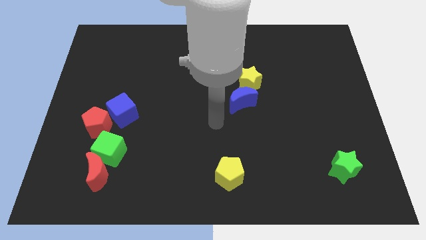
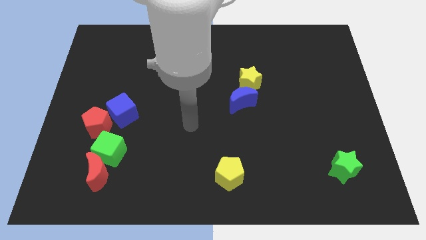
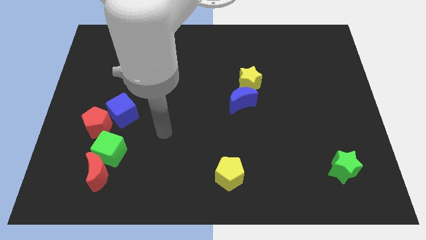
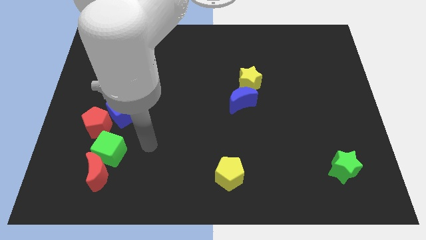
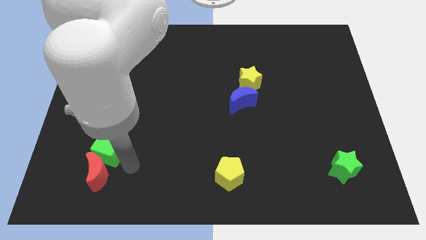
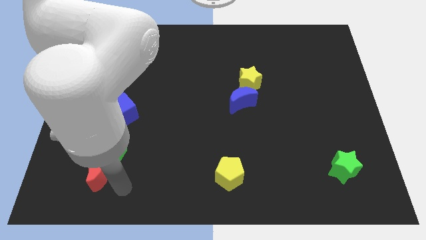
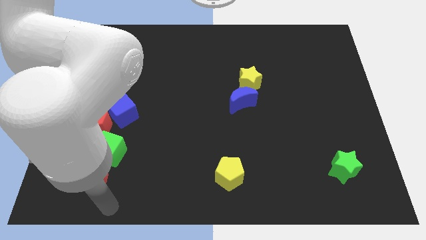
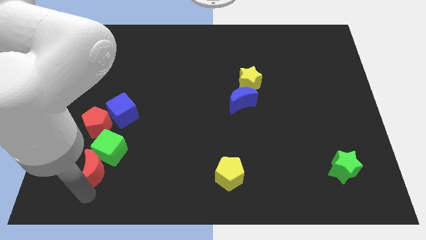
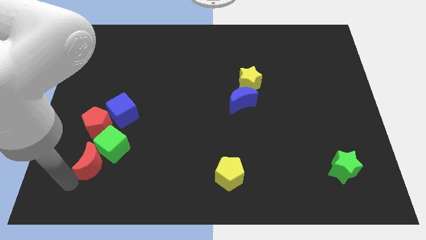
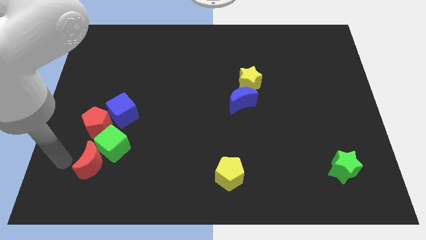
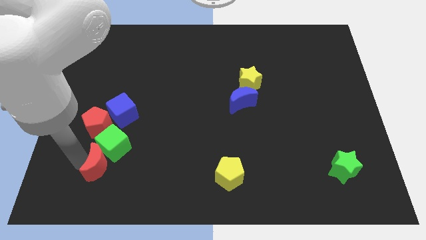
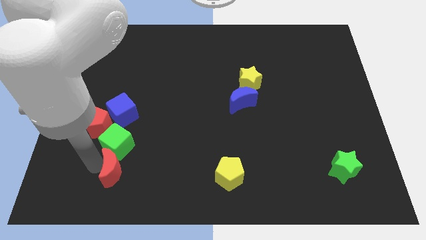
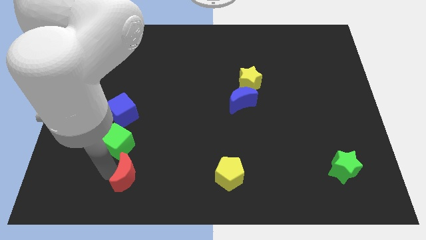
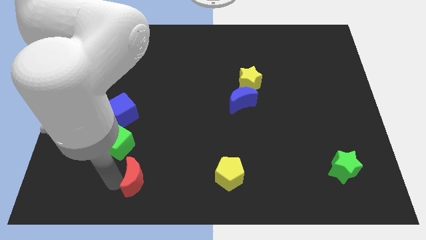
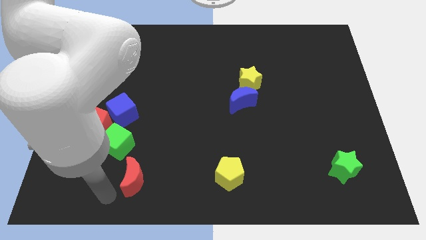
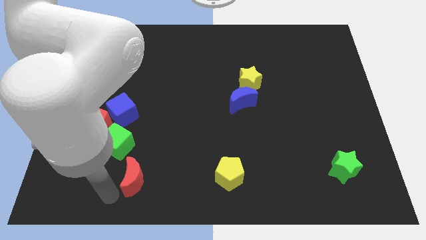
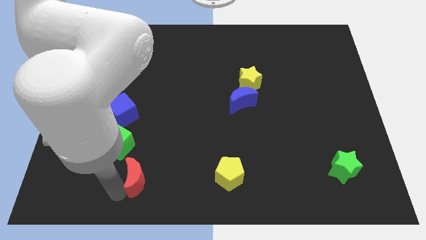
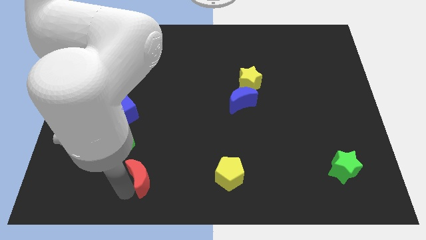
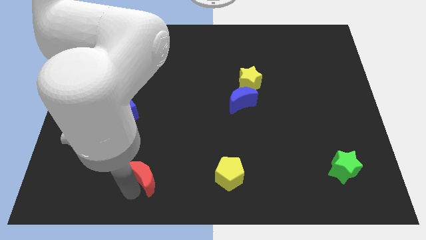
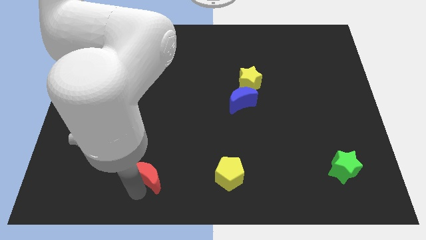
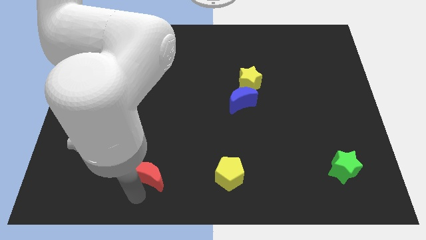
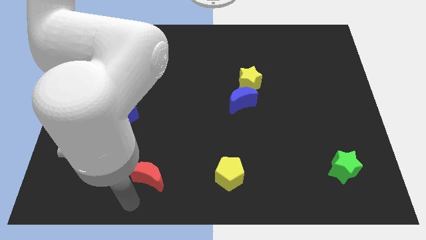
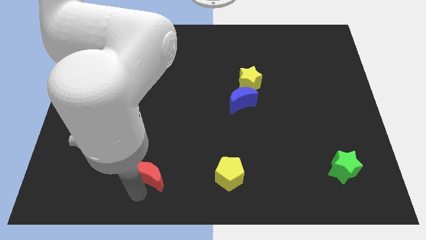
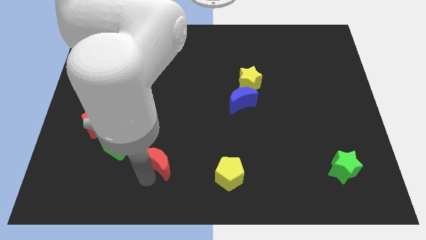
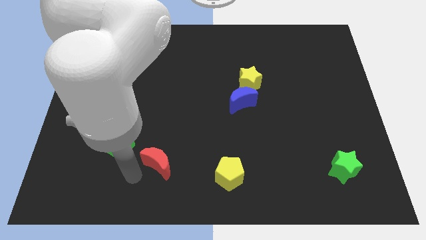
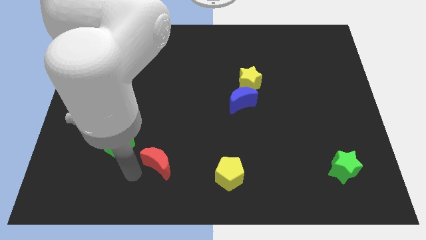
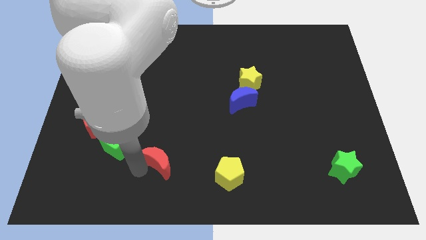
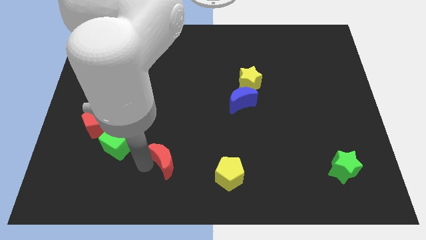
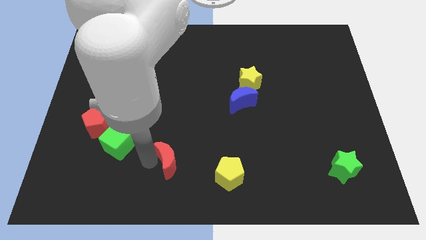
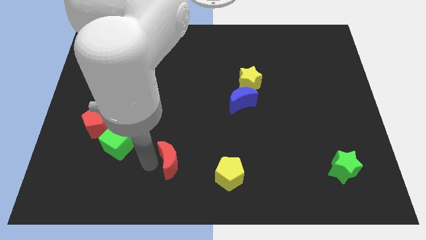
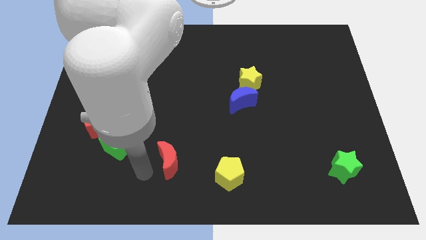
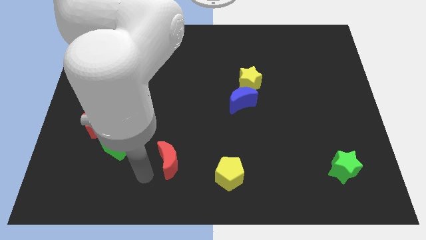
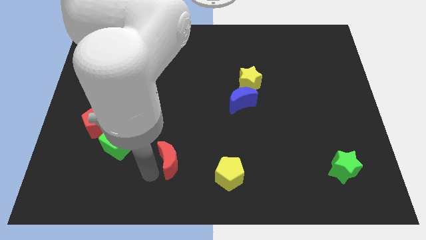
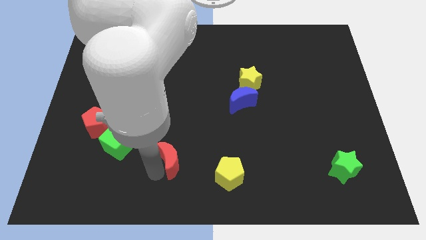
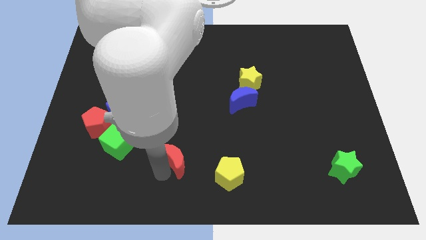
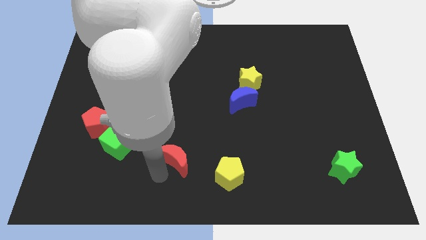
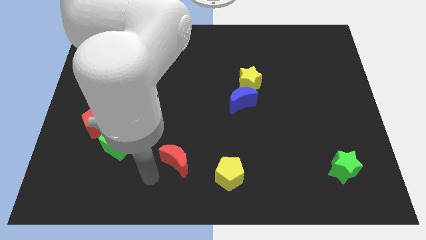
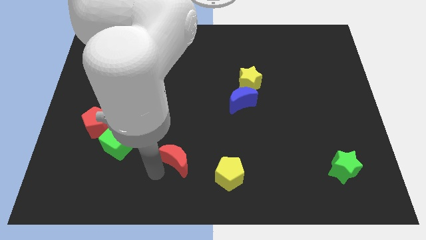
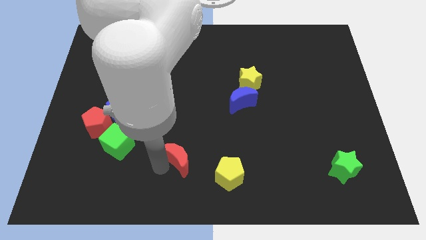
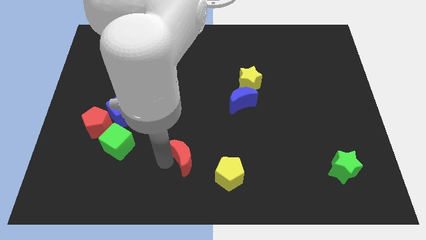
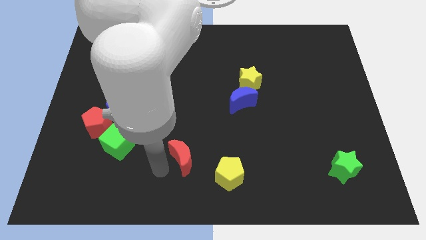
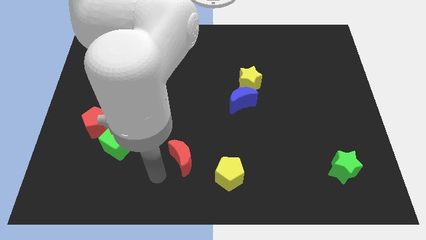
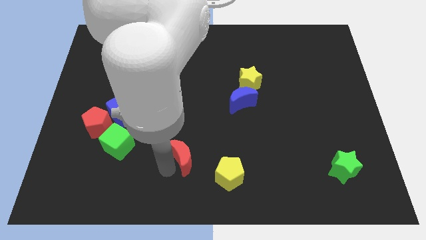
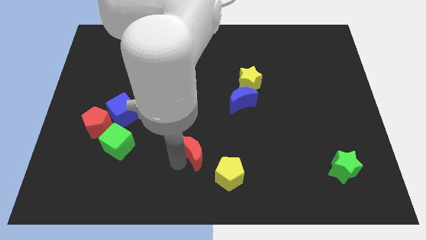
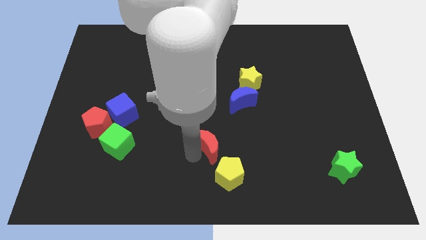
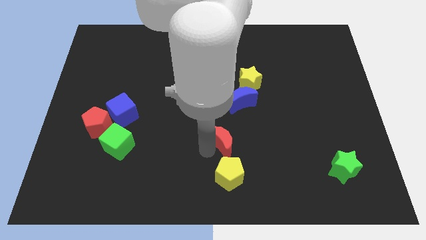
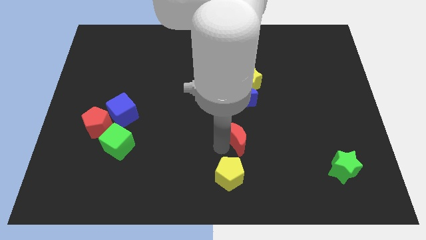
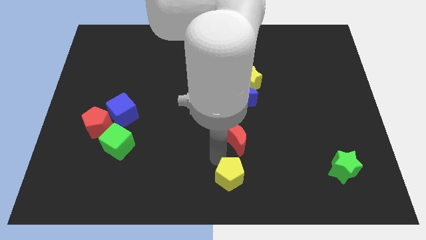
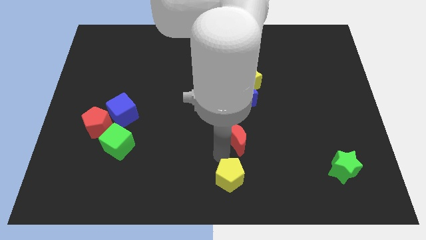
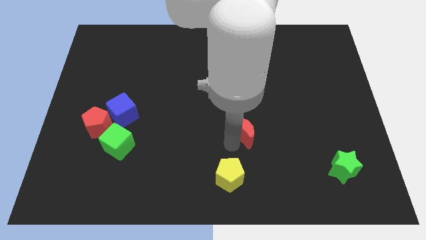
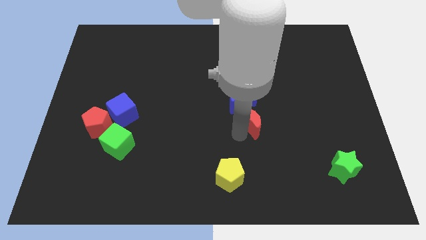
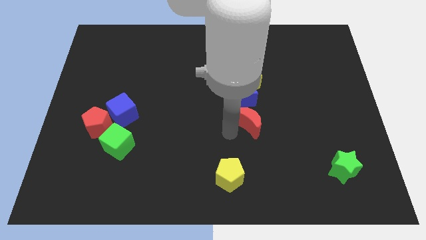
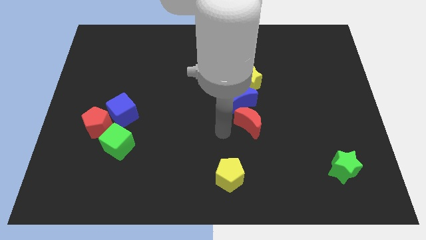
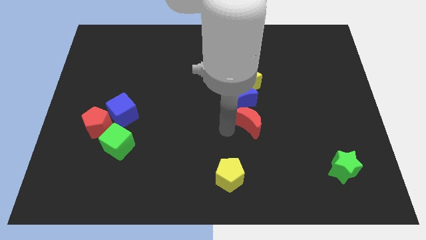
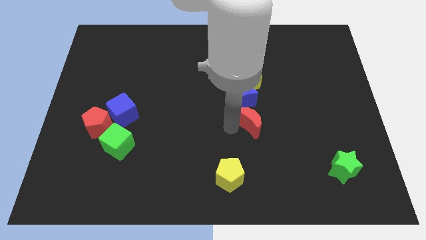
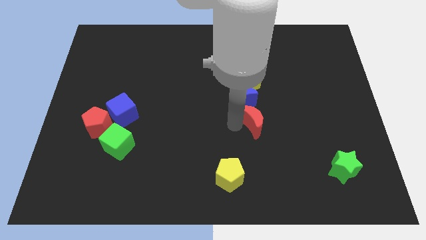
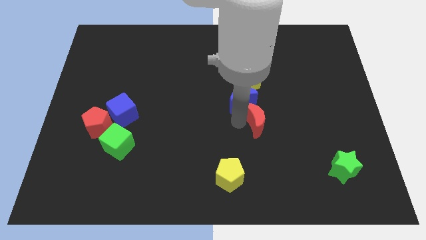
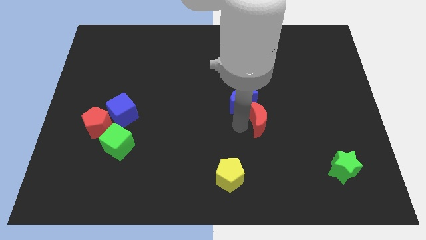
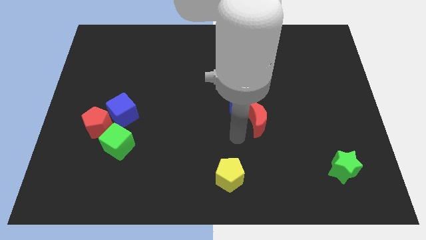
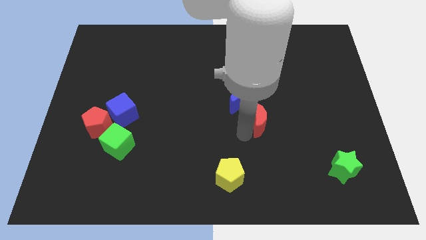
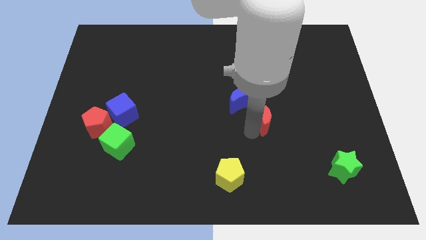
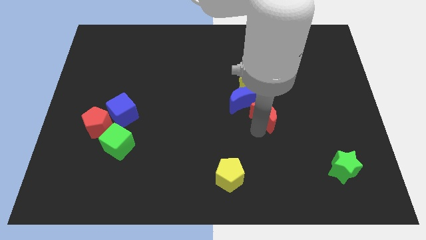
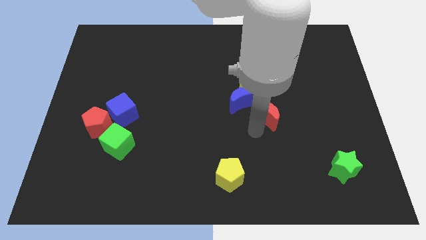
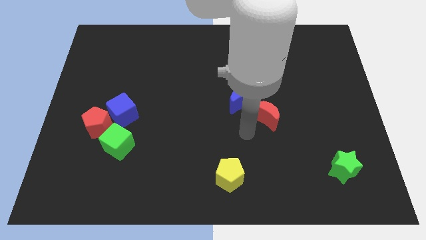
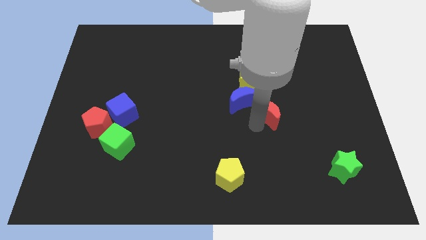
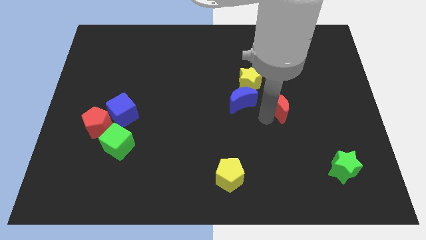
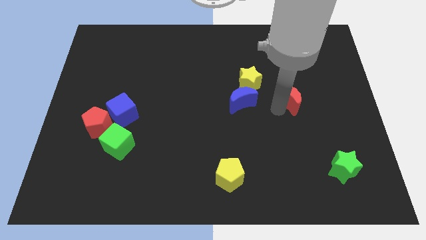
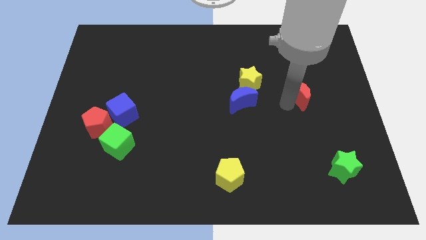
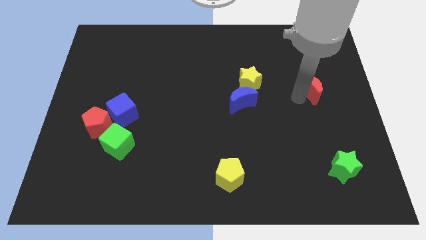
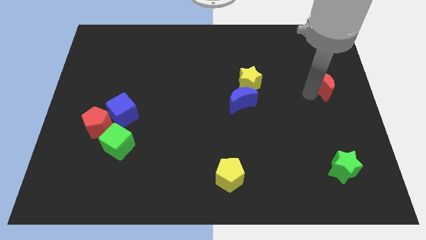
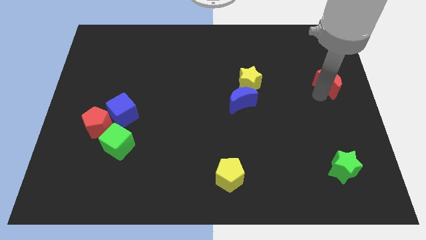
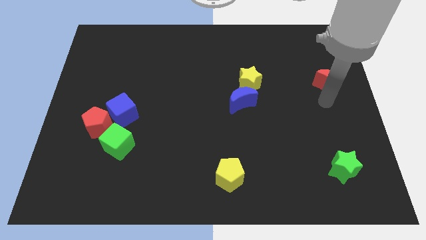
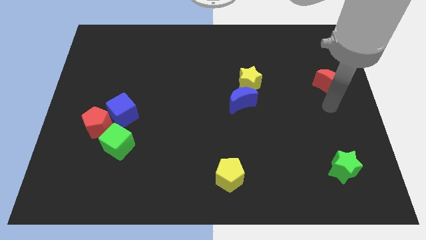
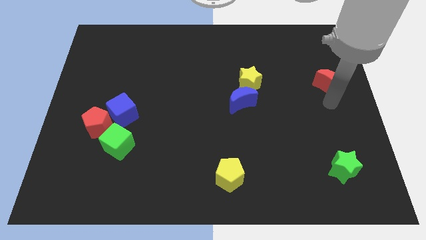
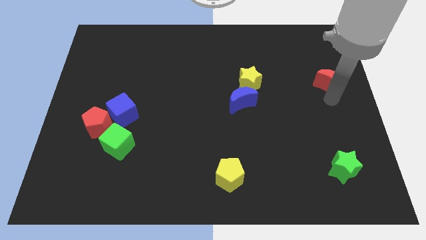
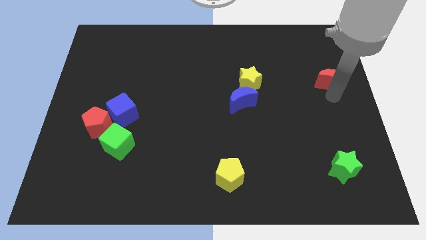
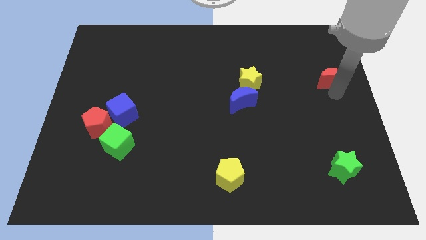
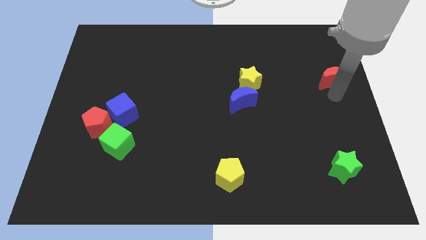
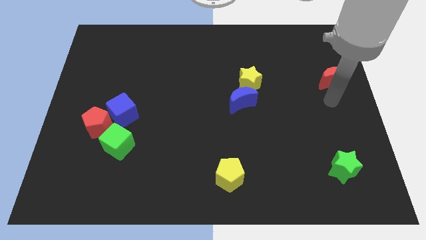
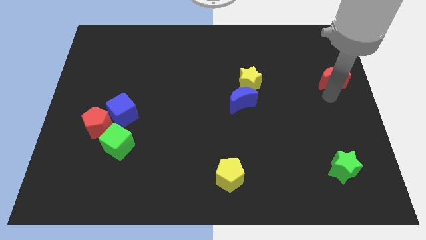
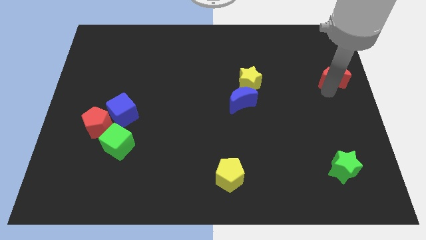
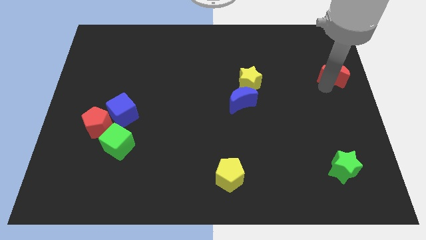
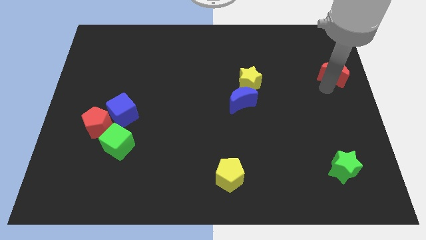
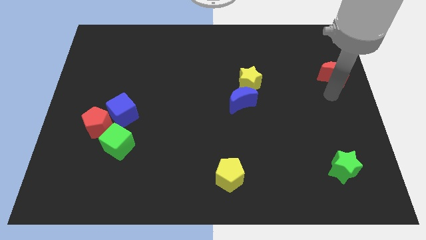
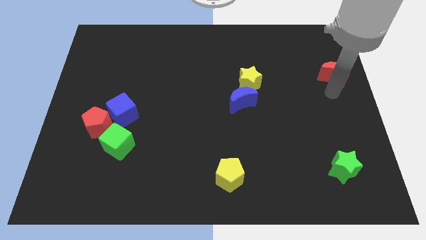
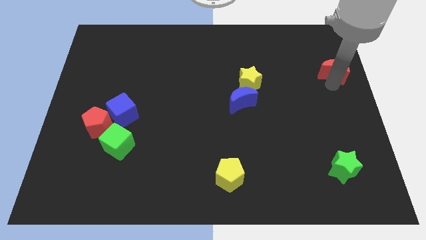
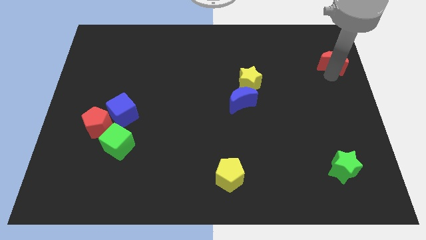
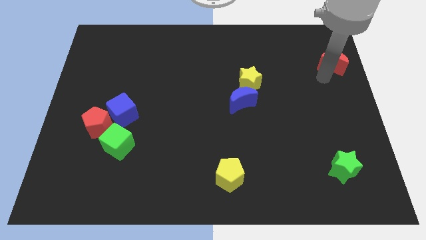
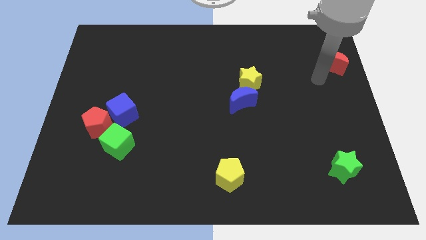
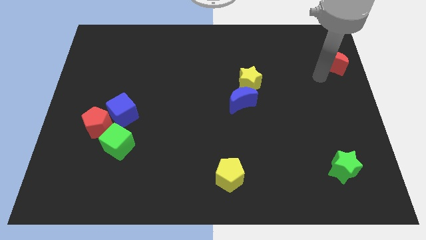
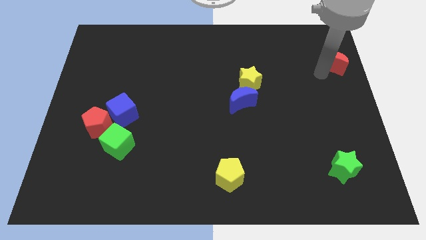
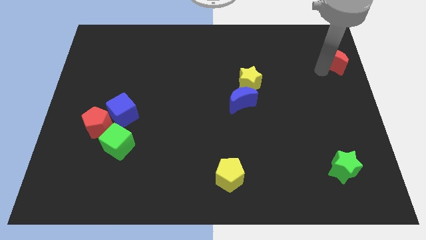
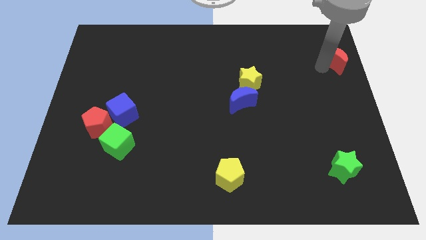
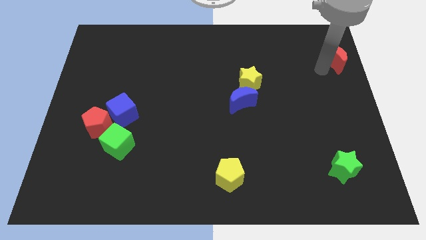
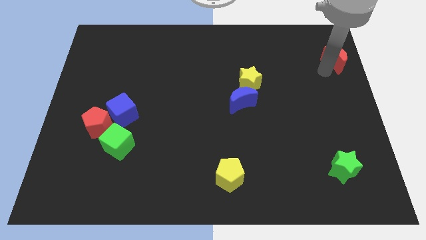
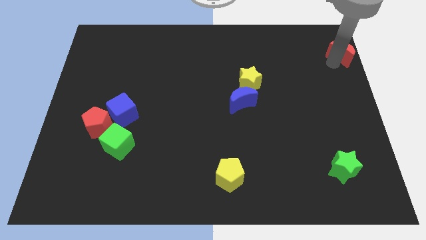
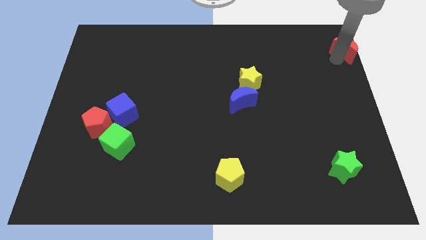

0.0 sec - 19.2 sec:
move the red moon to the top right
